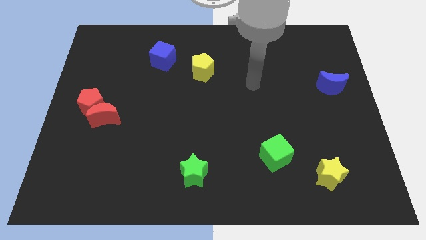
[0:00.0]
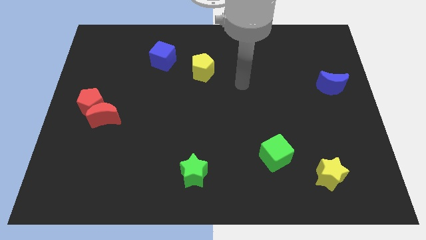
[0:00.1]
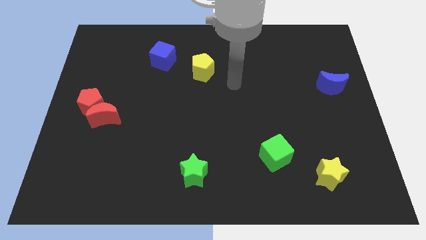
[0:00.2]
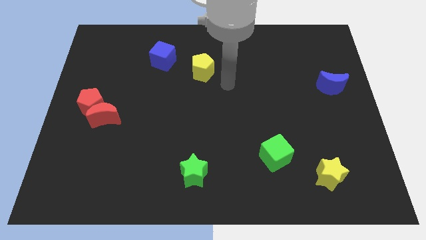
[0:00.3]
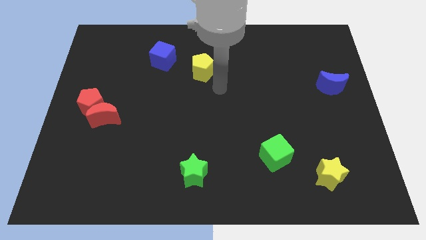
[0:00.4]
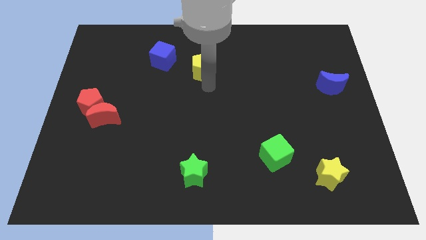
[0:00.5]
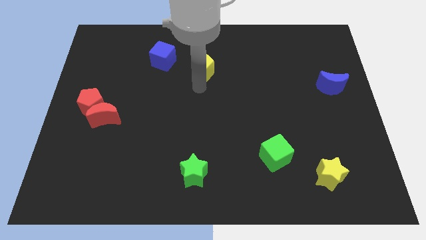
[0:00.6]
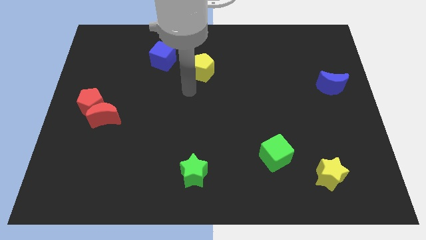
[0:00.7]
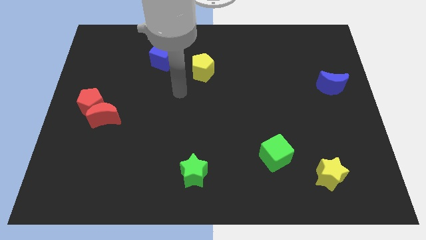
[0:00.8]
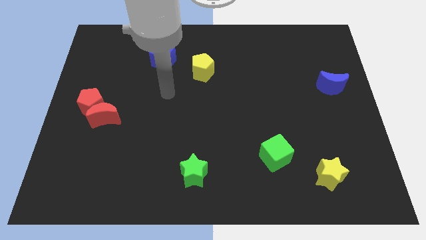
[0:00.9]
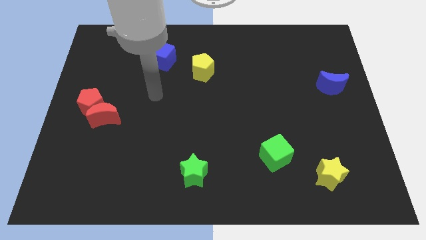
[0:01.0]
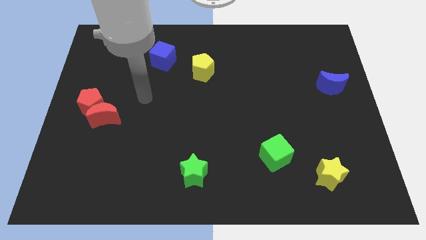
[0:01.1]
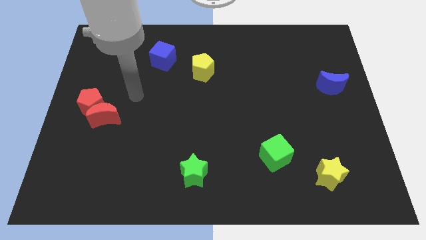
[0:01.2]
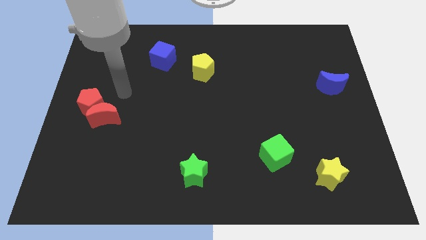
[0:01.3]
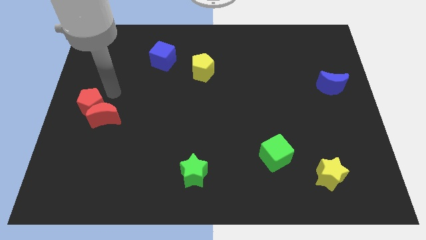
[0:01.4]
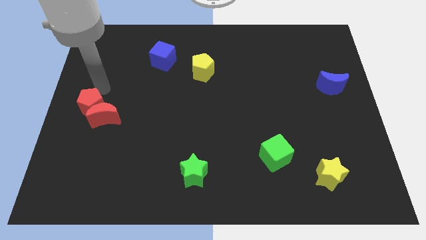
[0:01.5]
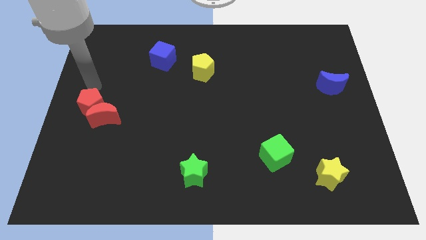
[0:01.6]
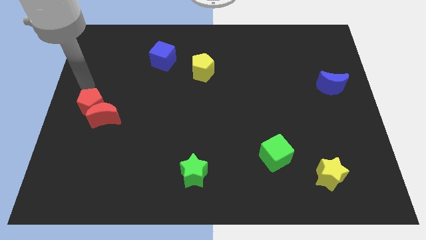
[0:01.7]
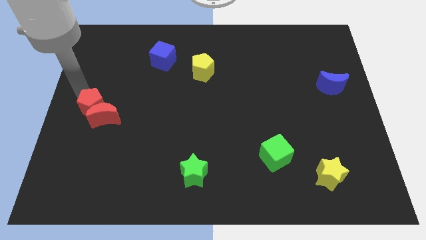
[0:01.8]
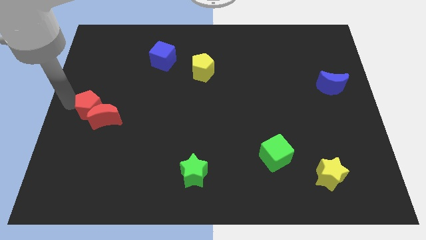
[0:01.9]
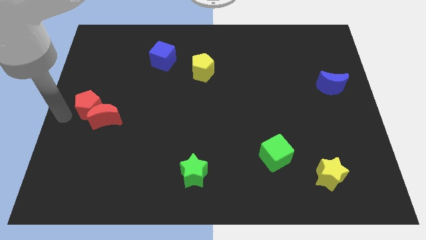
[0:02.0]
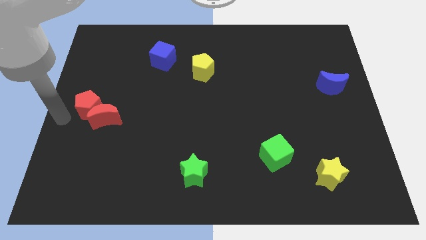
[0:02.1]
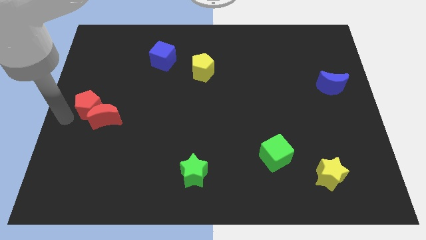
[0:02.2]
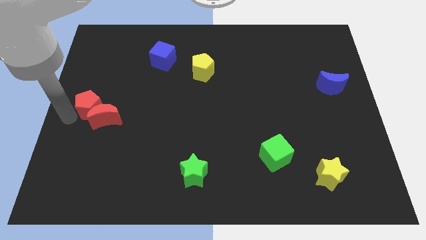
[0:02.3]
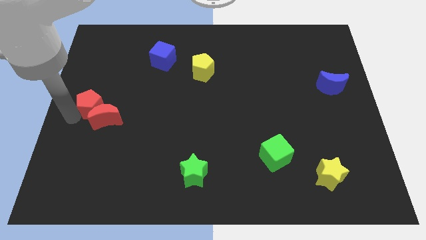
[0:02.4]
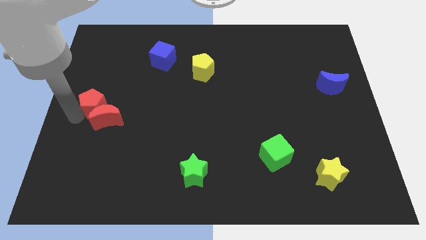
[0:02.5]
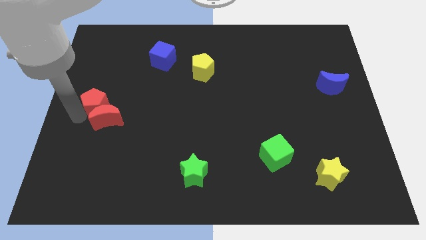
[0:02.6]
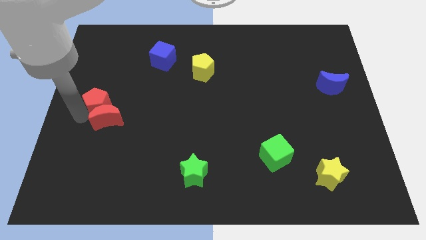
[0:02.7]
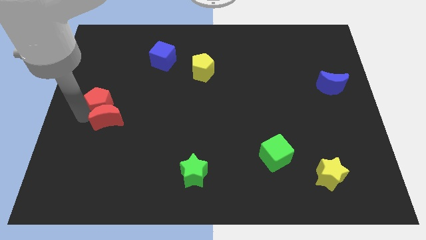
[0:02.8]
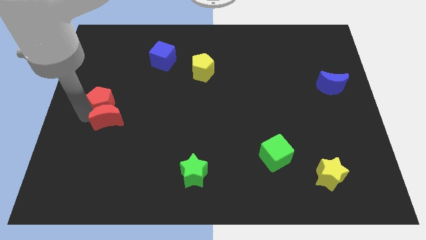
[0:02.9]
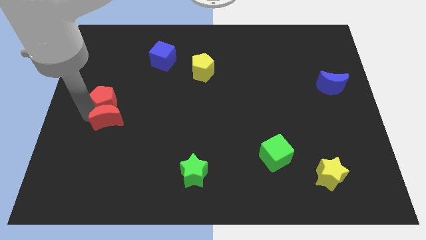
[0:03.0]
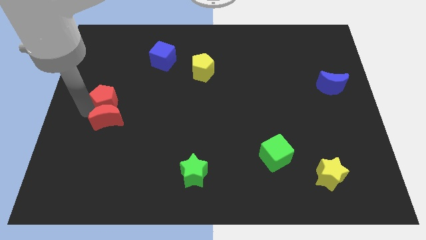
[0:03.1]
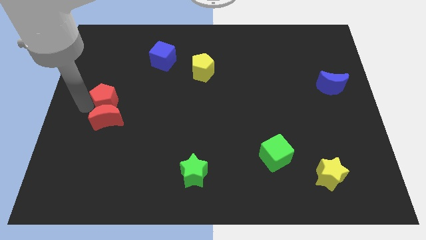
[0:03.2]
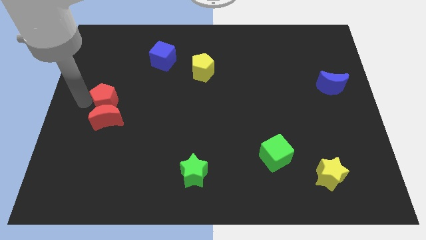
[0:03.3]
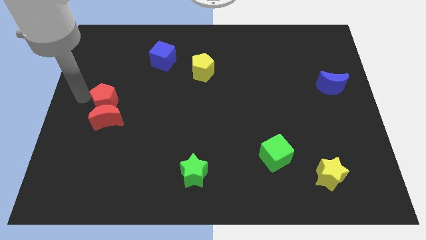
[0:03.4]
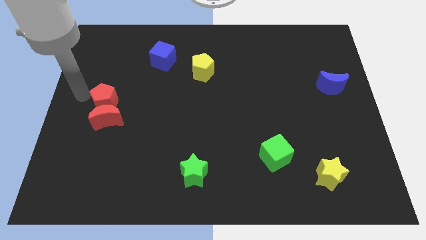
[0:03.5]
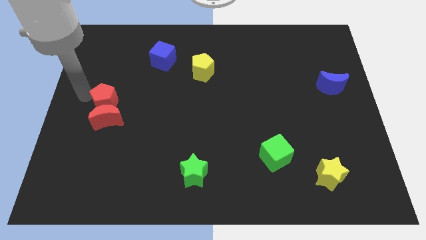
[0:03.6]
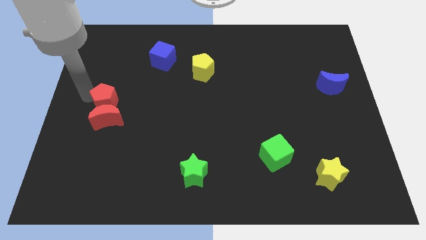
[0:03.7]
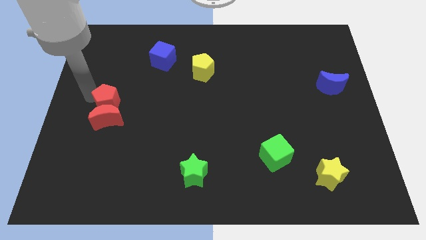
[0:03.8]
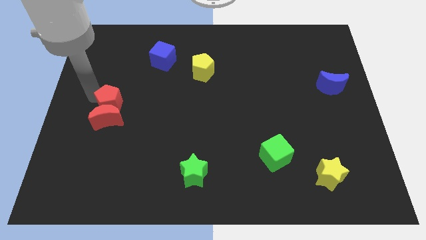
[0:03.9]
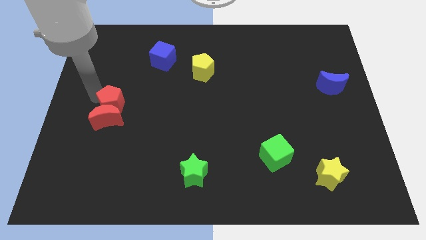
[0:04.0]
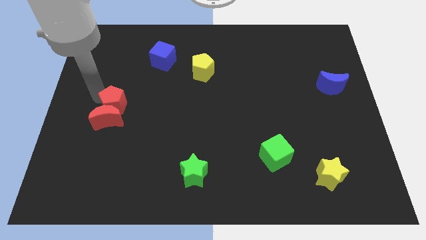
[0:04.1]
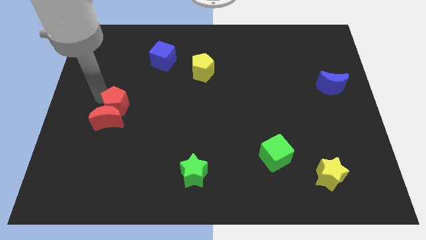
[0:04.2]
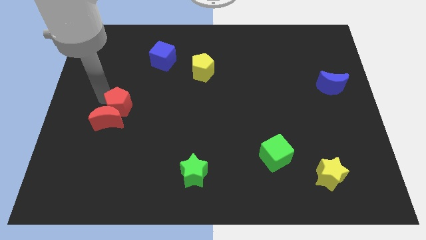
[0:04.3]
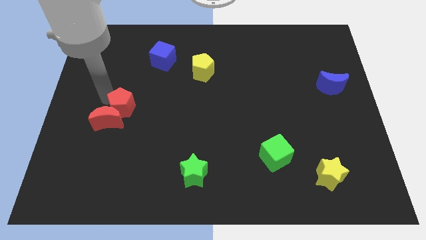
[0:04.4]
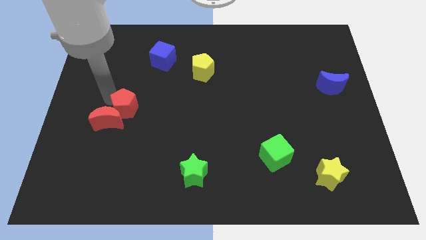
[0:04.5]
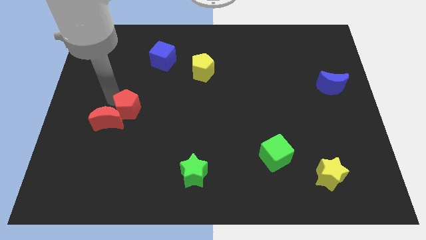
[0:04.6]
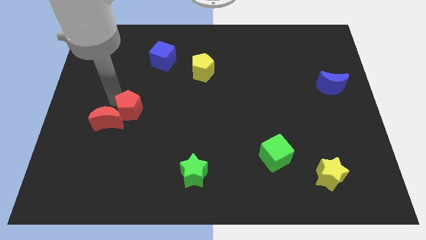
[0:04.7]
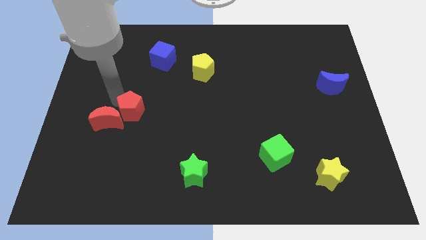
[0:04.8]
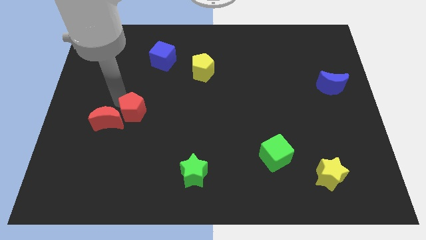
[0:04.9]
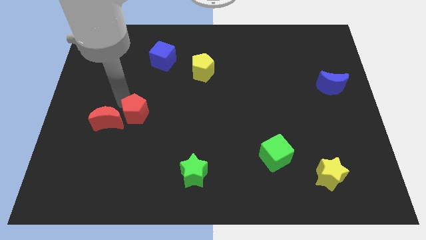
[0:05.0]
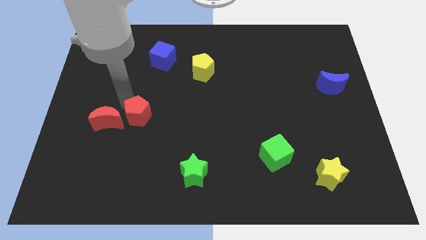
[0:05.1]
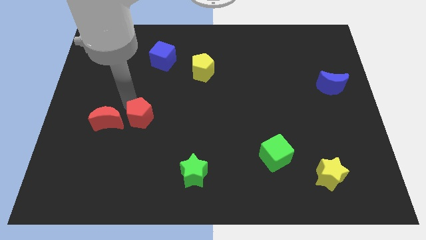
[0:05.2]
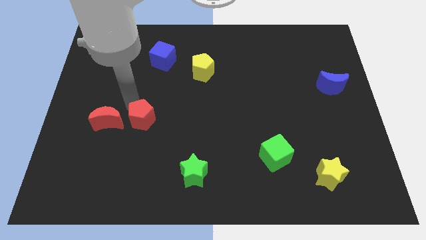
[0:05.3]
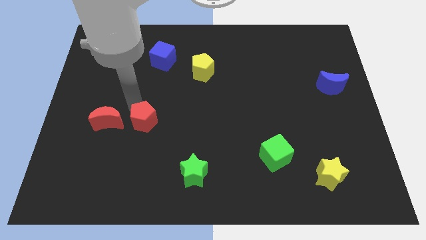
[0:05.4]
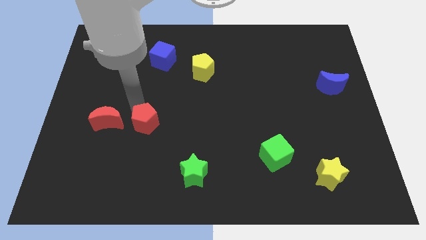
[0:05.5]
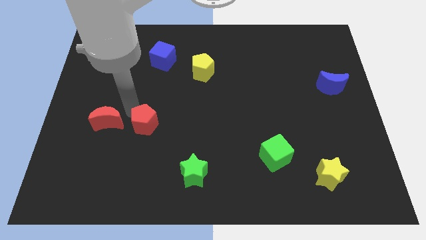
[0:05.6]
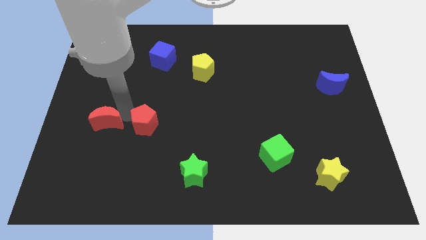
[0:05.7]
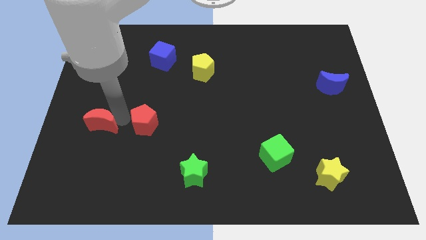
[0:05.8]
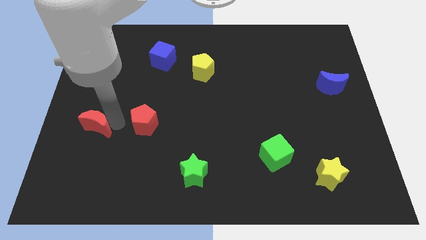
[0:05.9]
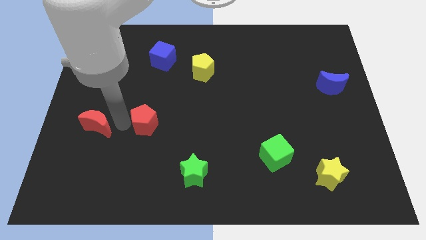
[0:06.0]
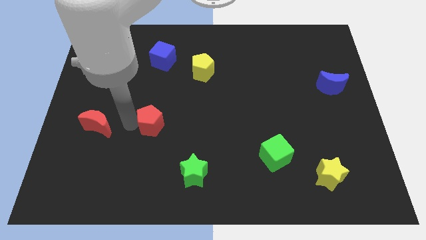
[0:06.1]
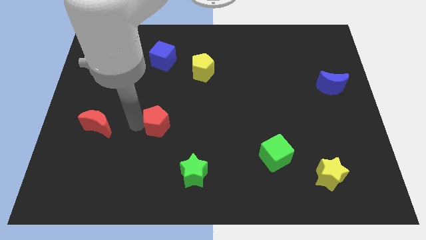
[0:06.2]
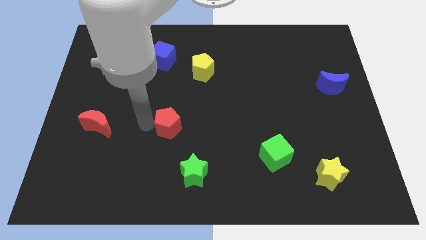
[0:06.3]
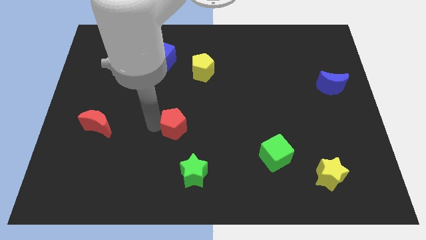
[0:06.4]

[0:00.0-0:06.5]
slide the red pentagon above the green star

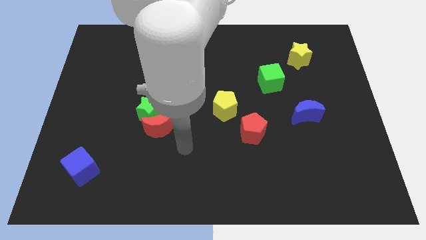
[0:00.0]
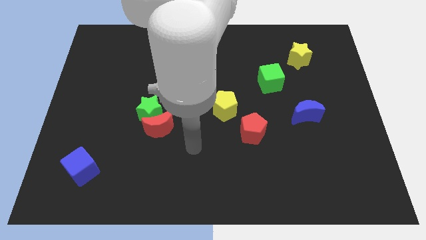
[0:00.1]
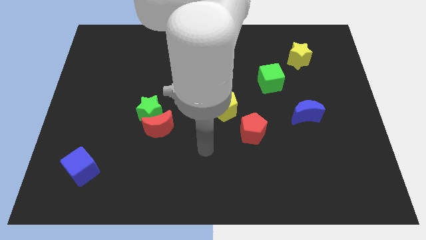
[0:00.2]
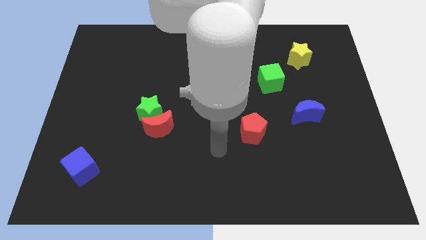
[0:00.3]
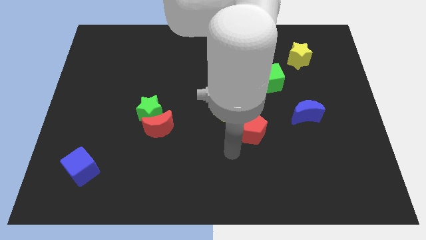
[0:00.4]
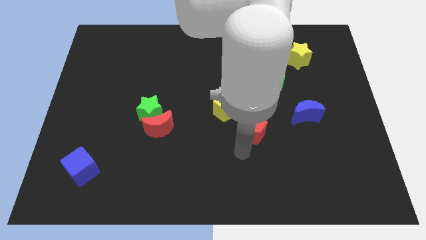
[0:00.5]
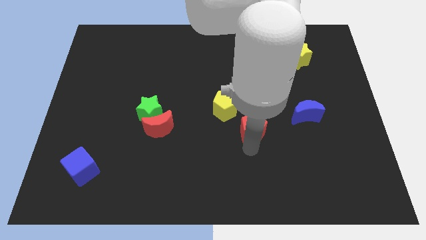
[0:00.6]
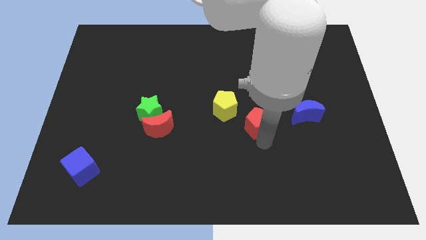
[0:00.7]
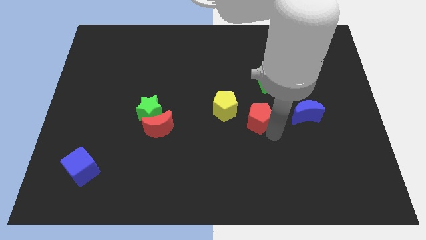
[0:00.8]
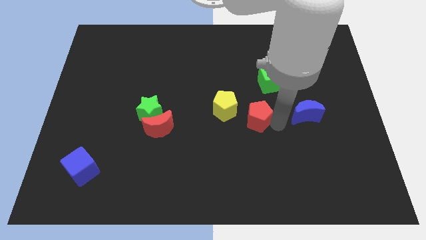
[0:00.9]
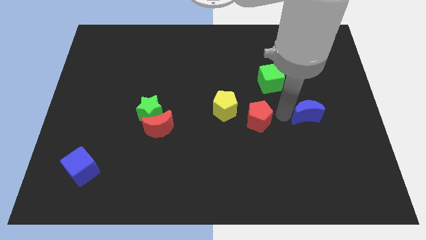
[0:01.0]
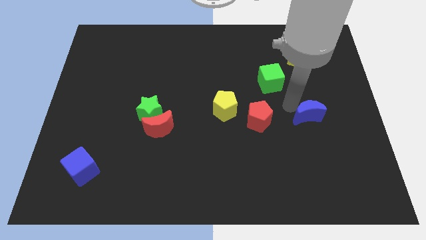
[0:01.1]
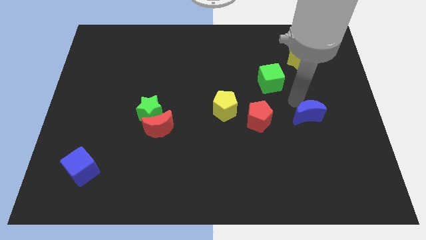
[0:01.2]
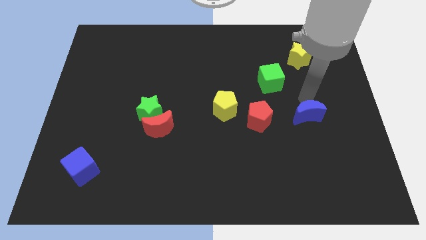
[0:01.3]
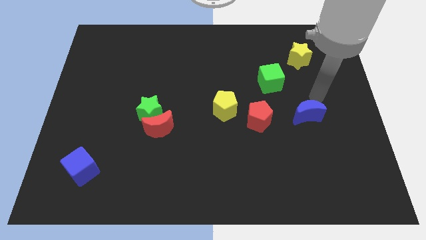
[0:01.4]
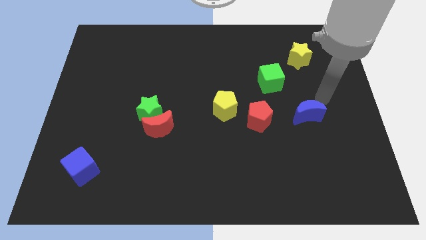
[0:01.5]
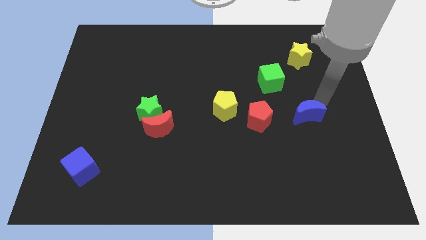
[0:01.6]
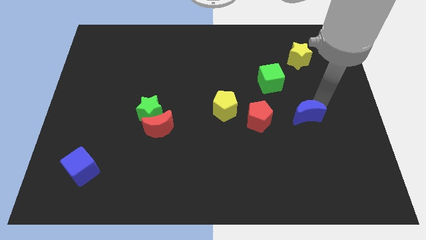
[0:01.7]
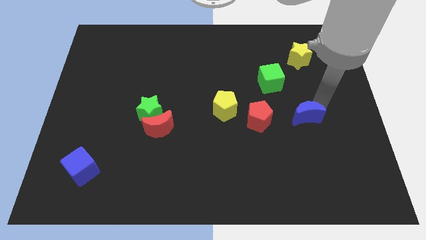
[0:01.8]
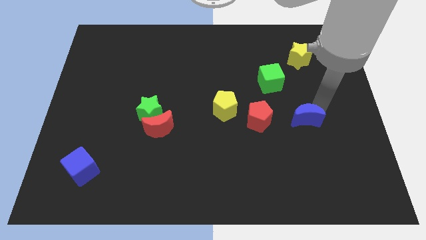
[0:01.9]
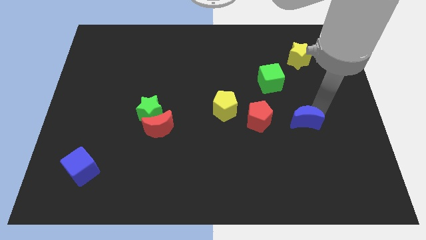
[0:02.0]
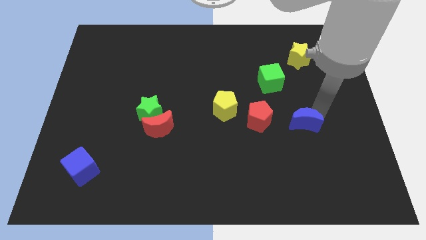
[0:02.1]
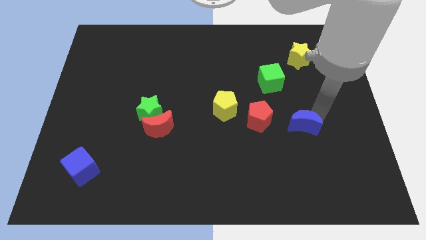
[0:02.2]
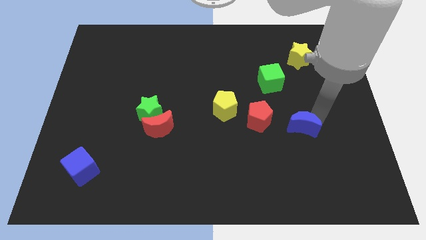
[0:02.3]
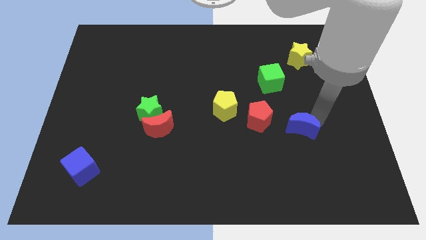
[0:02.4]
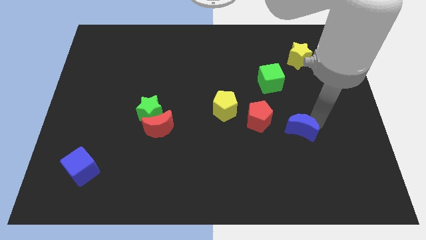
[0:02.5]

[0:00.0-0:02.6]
slide the blue moon to the bottom right side of the red pentagon
